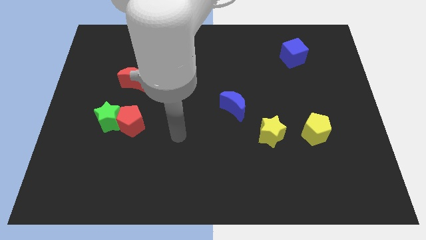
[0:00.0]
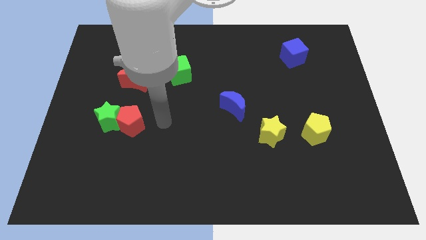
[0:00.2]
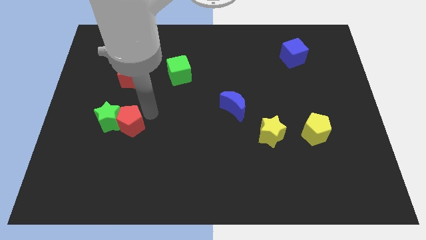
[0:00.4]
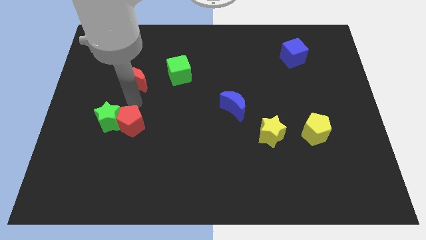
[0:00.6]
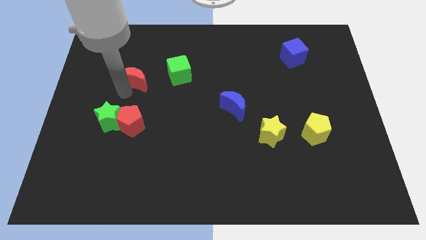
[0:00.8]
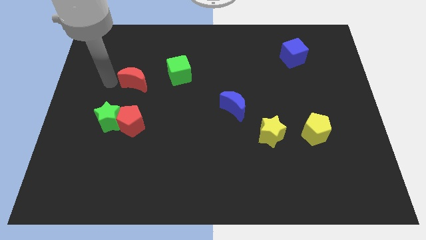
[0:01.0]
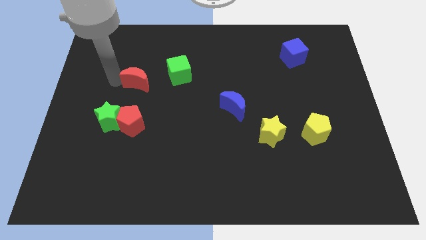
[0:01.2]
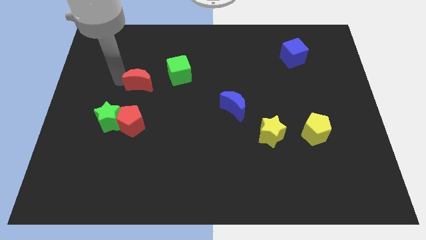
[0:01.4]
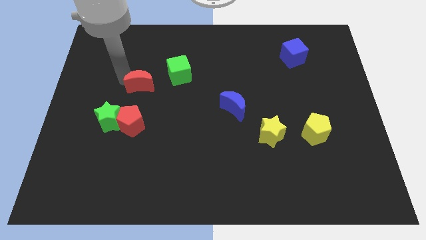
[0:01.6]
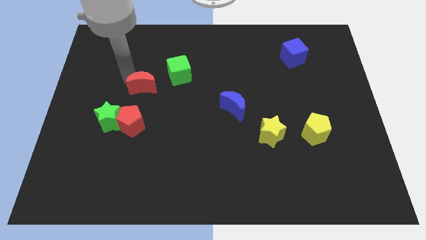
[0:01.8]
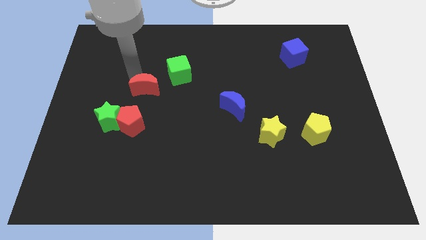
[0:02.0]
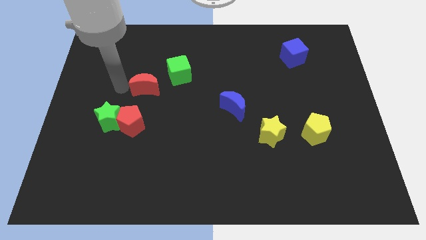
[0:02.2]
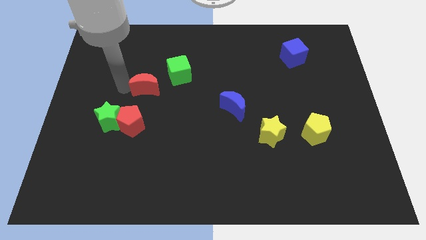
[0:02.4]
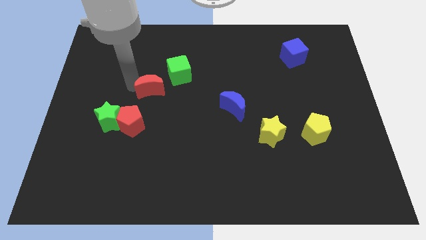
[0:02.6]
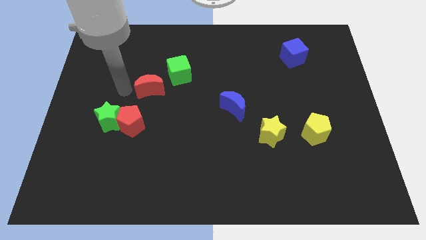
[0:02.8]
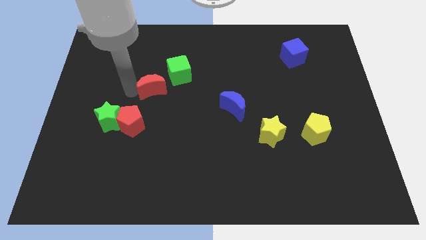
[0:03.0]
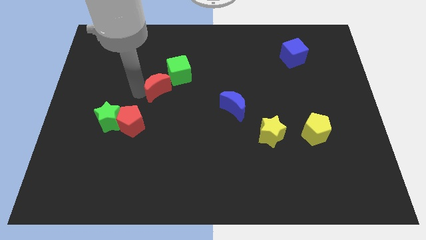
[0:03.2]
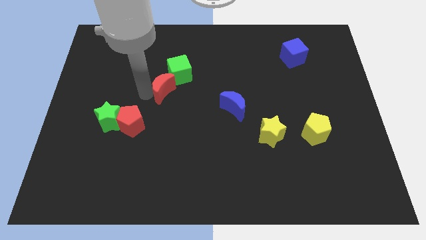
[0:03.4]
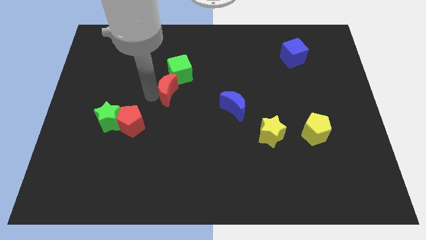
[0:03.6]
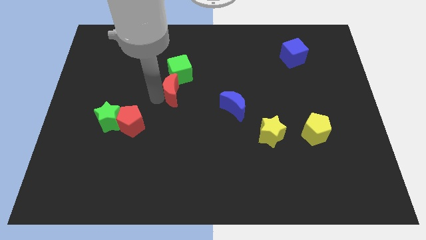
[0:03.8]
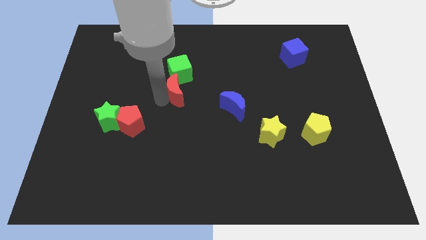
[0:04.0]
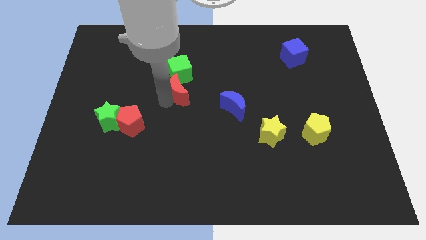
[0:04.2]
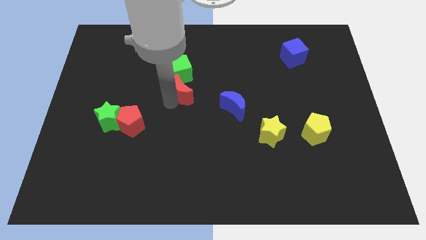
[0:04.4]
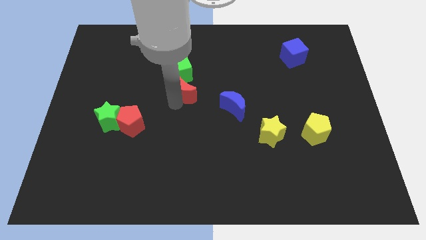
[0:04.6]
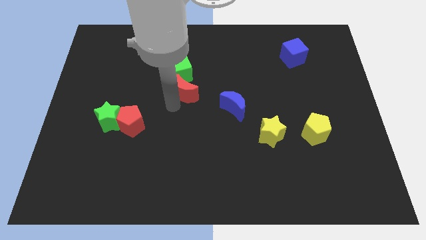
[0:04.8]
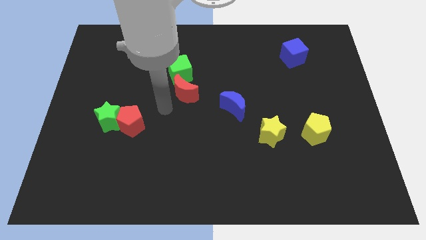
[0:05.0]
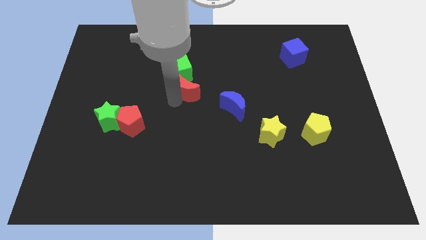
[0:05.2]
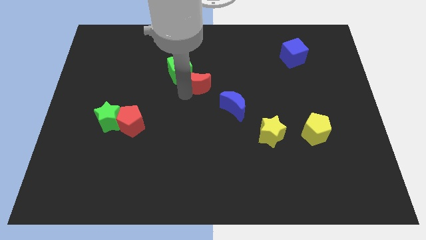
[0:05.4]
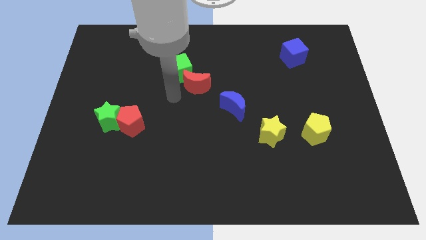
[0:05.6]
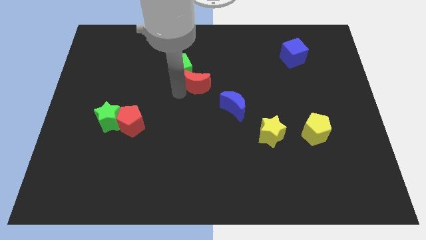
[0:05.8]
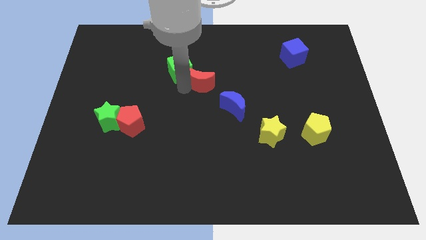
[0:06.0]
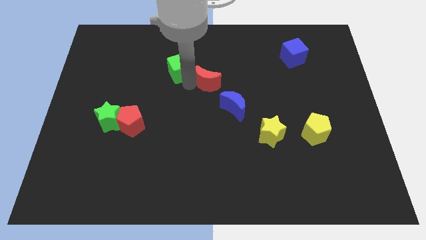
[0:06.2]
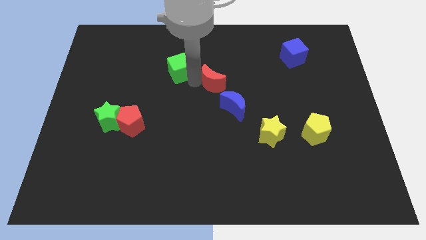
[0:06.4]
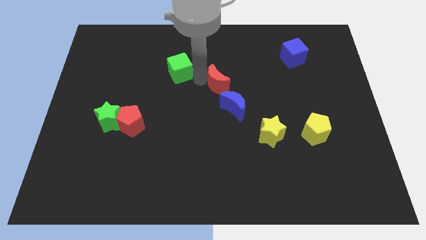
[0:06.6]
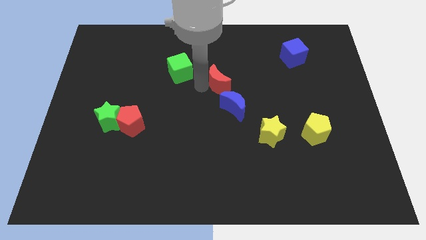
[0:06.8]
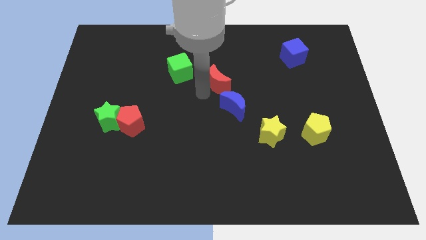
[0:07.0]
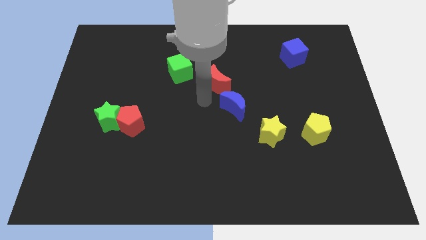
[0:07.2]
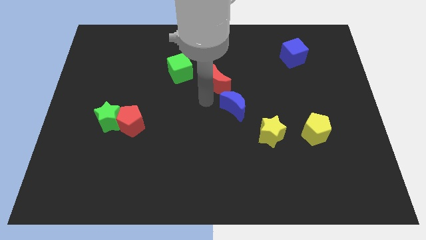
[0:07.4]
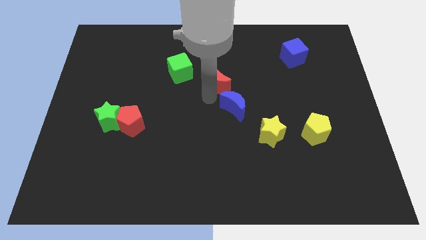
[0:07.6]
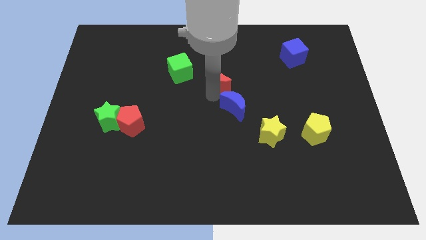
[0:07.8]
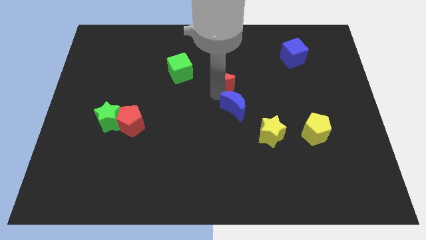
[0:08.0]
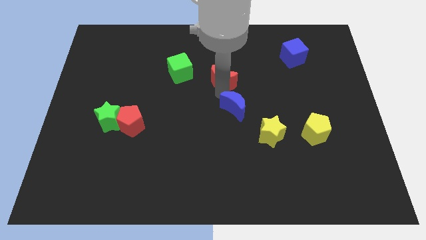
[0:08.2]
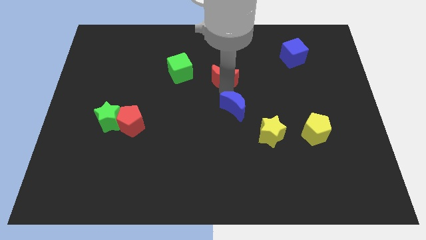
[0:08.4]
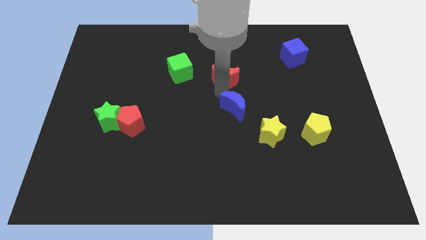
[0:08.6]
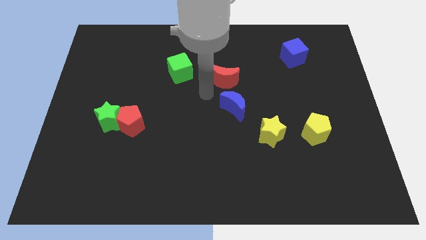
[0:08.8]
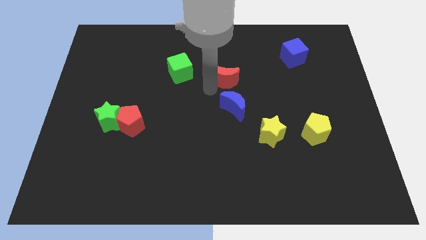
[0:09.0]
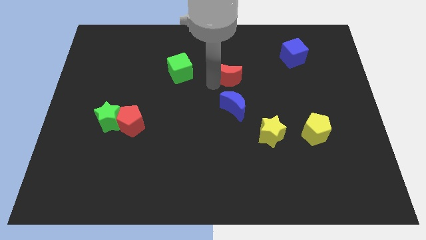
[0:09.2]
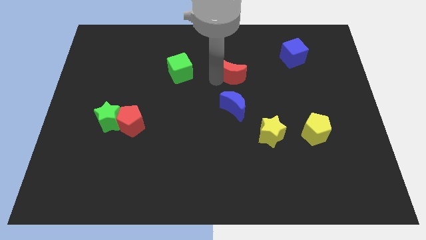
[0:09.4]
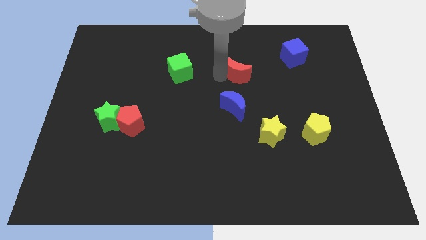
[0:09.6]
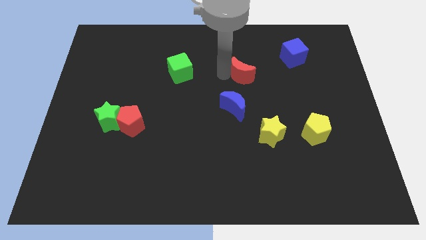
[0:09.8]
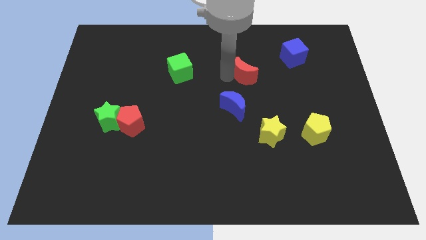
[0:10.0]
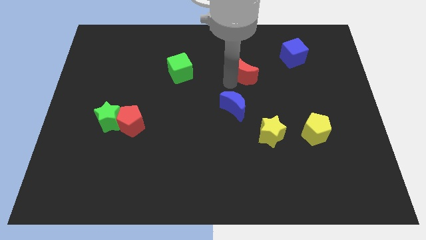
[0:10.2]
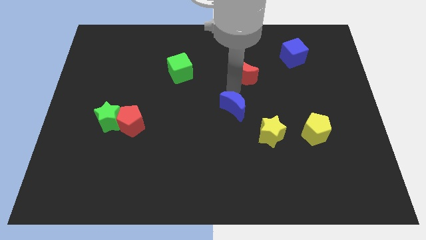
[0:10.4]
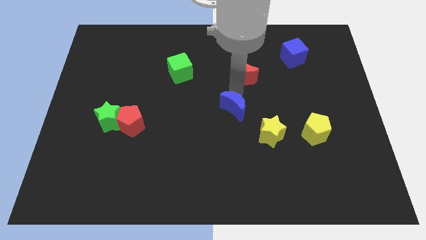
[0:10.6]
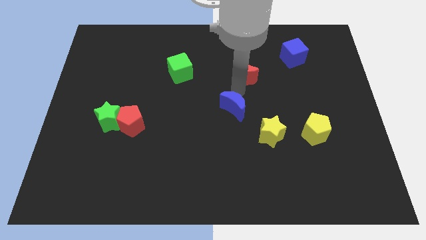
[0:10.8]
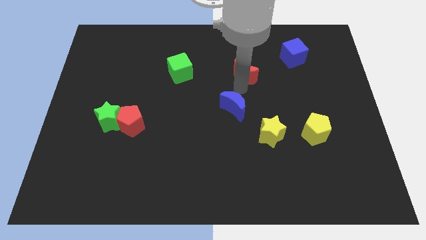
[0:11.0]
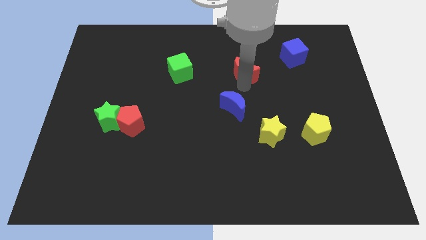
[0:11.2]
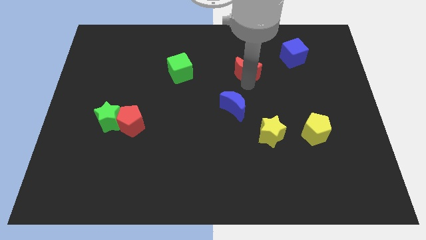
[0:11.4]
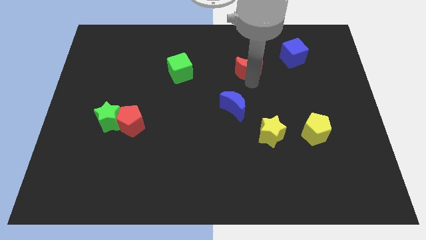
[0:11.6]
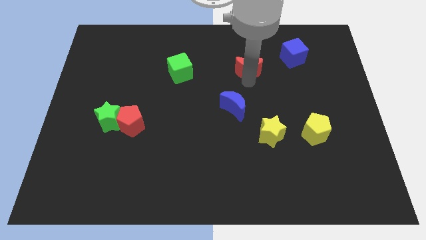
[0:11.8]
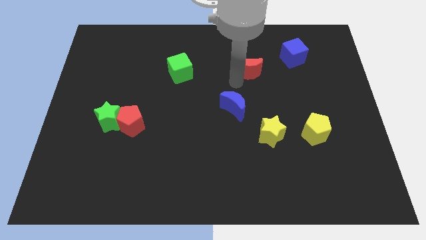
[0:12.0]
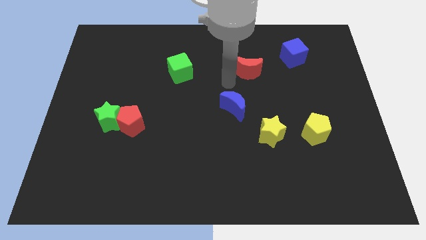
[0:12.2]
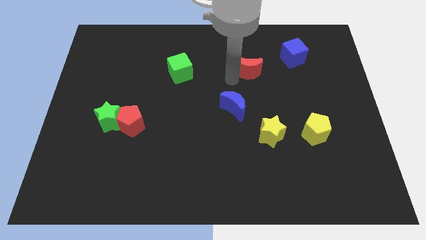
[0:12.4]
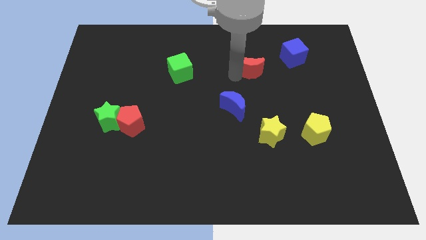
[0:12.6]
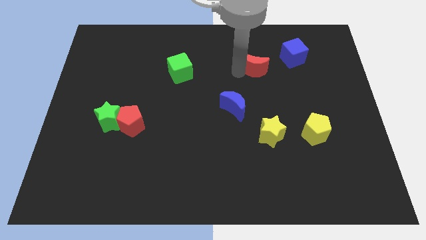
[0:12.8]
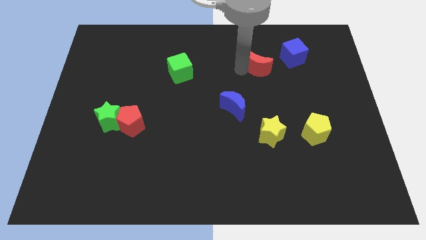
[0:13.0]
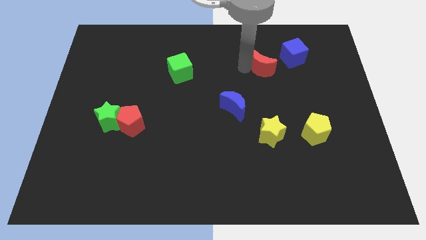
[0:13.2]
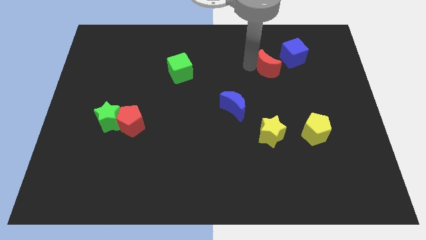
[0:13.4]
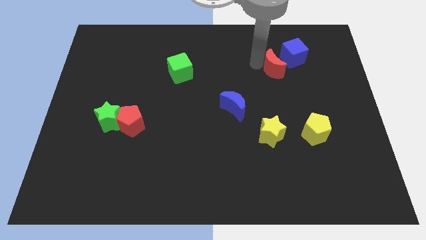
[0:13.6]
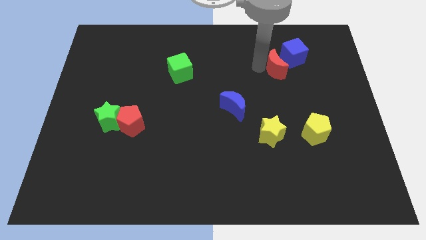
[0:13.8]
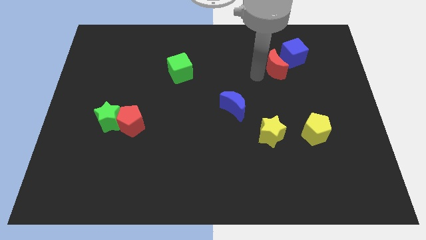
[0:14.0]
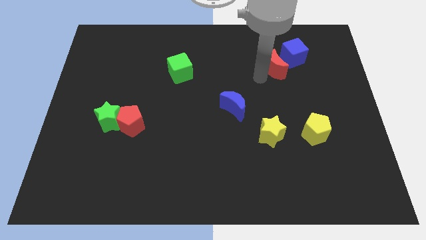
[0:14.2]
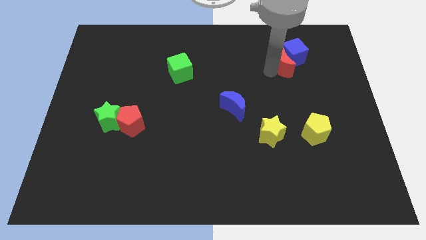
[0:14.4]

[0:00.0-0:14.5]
move the red moon next to the blue cube
